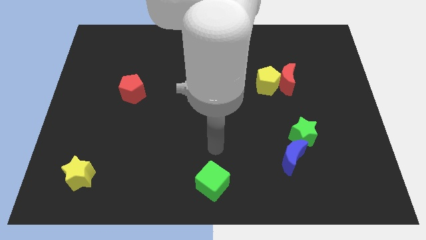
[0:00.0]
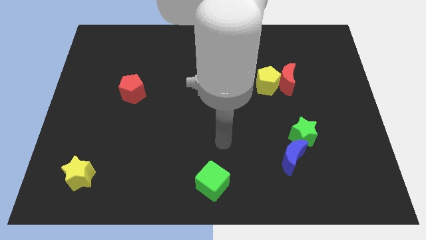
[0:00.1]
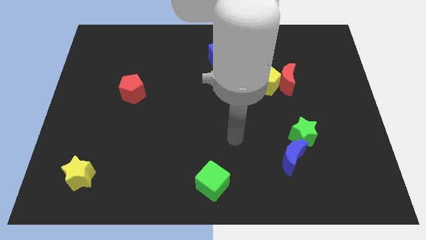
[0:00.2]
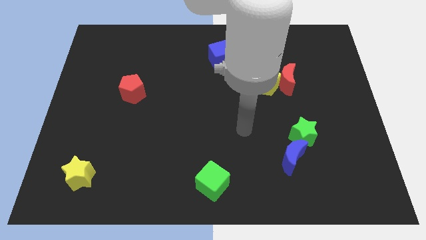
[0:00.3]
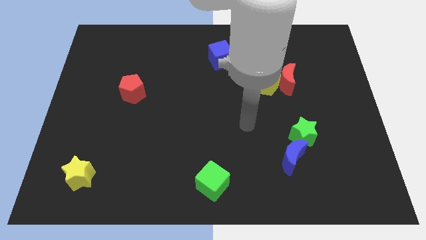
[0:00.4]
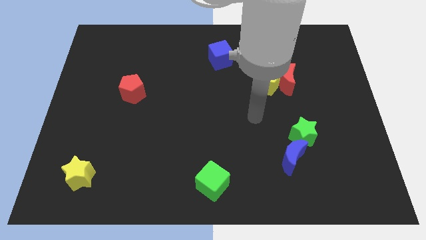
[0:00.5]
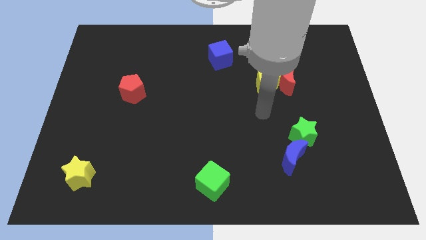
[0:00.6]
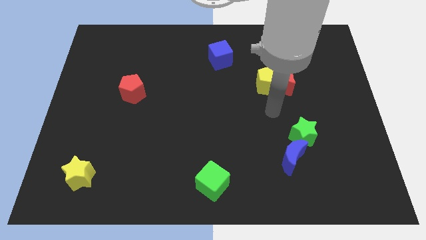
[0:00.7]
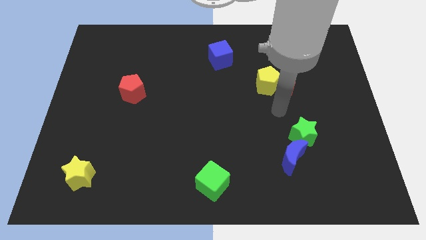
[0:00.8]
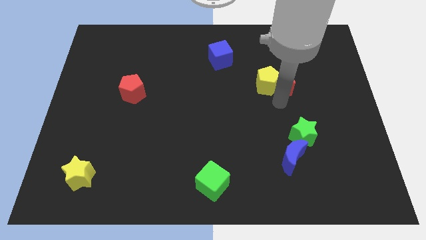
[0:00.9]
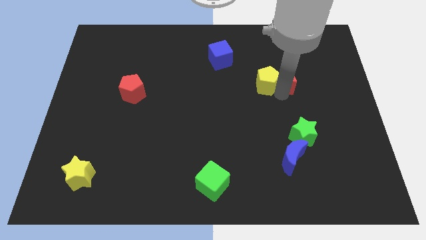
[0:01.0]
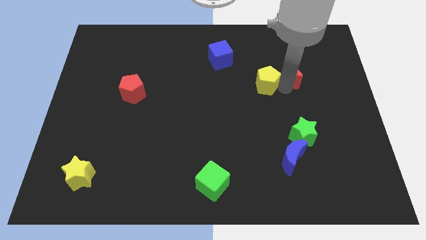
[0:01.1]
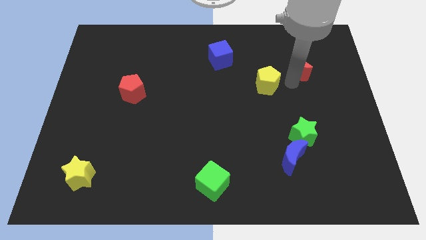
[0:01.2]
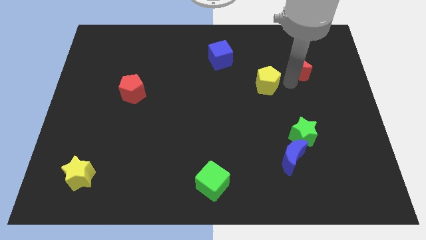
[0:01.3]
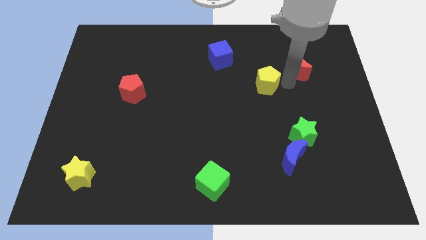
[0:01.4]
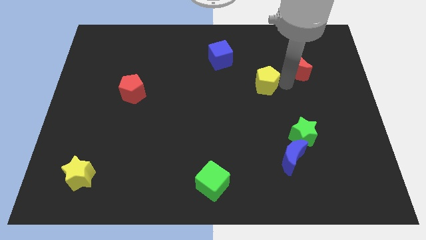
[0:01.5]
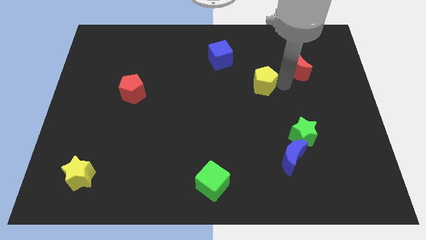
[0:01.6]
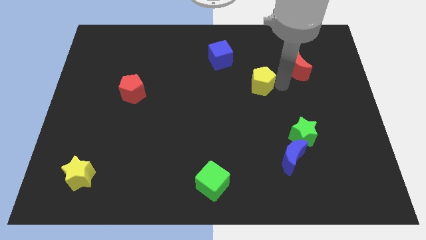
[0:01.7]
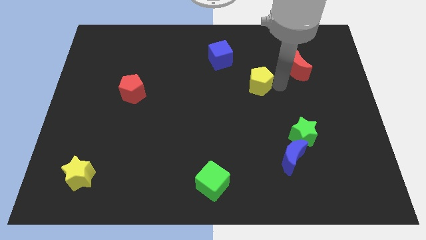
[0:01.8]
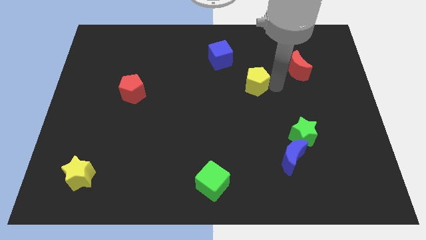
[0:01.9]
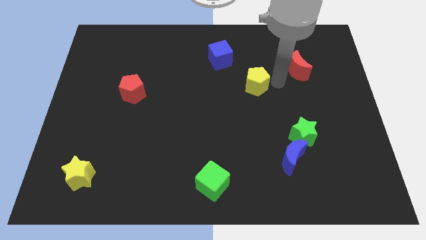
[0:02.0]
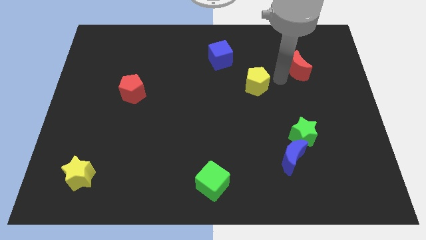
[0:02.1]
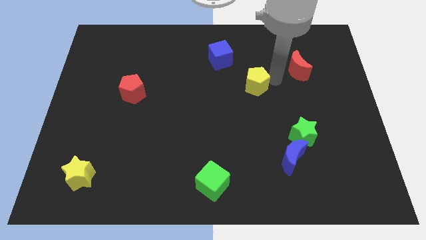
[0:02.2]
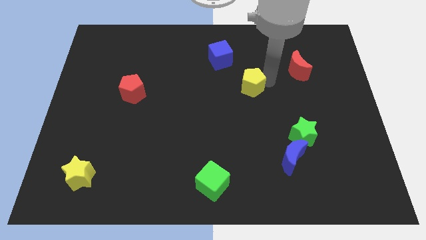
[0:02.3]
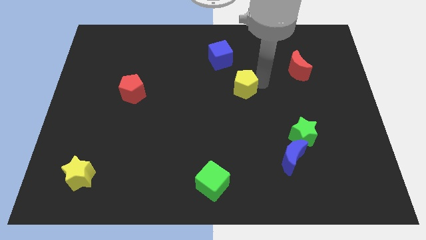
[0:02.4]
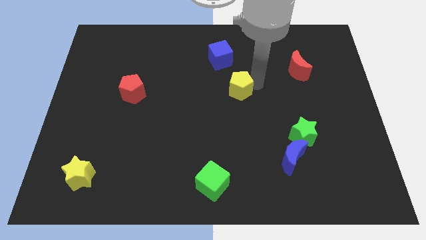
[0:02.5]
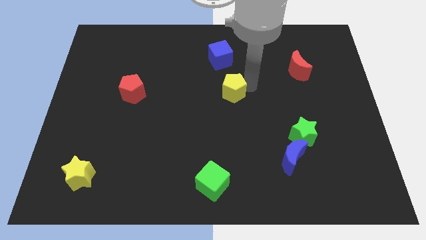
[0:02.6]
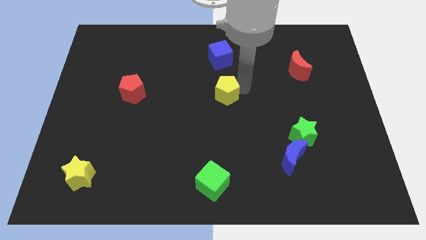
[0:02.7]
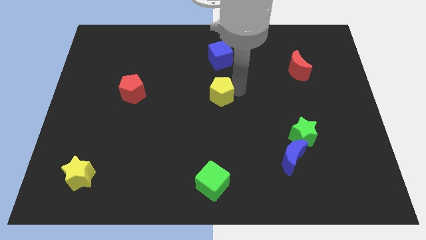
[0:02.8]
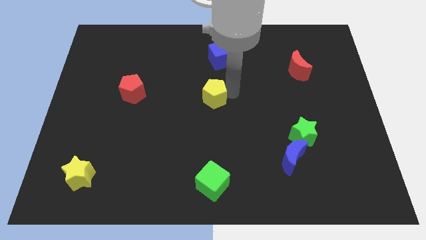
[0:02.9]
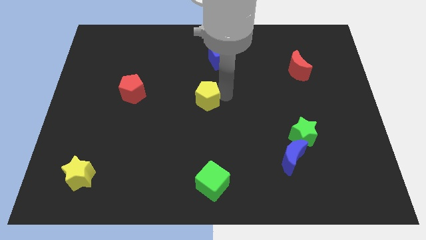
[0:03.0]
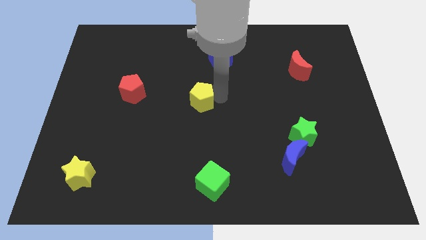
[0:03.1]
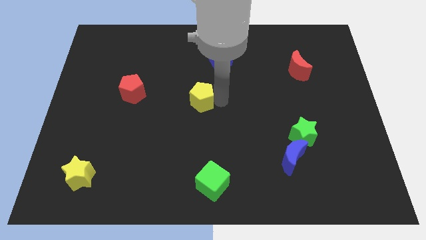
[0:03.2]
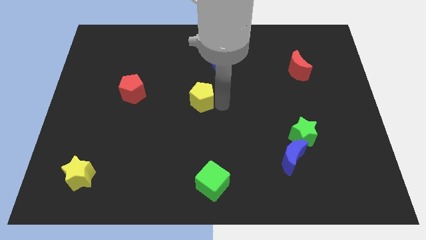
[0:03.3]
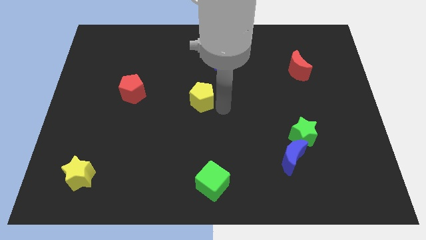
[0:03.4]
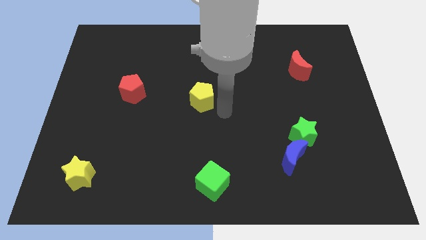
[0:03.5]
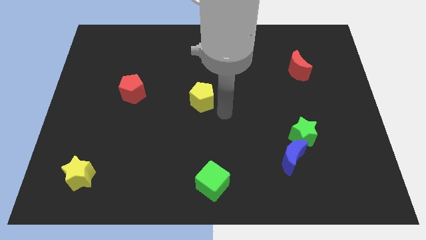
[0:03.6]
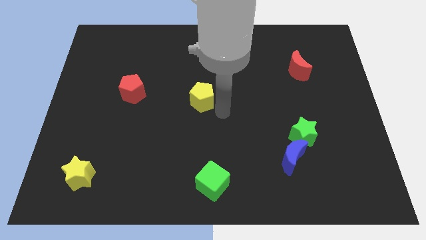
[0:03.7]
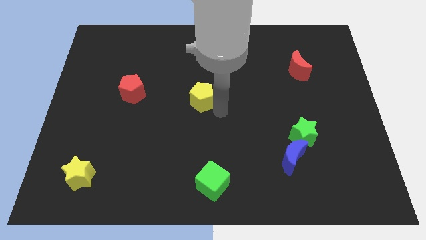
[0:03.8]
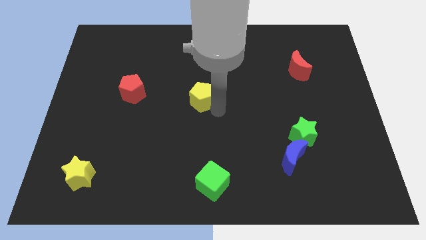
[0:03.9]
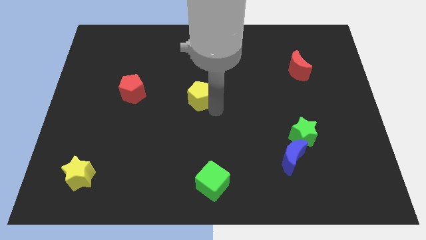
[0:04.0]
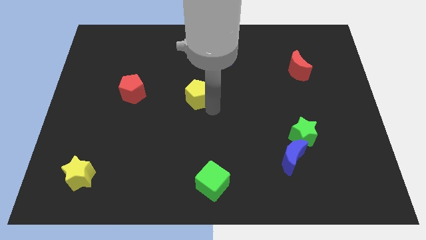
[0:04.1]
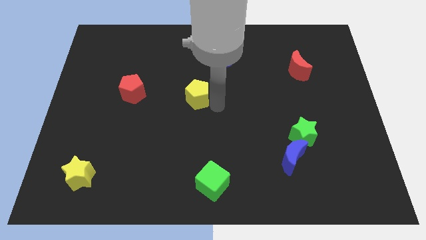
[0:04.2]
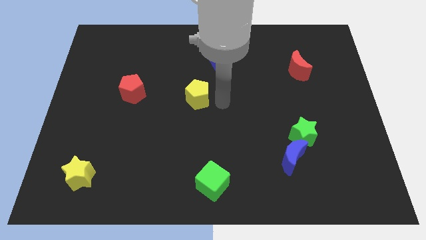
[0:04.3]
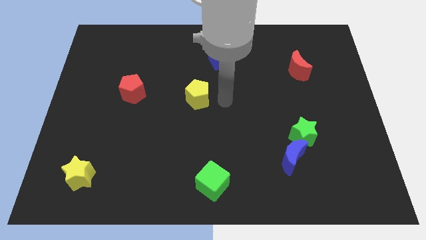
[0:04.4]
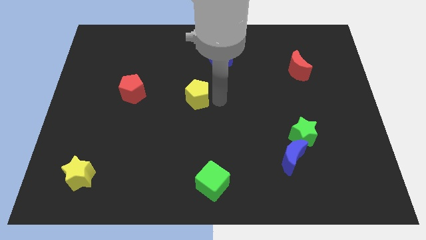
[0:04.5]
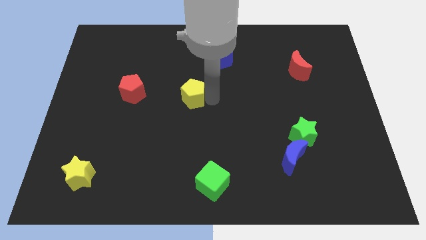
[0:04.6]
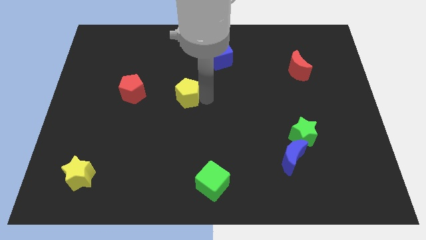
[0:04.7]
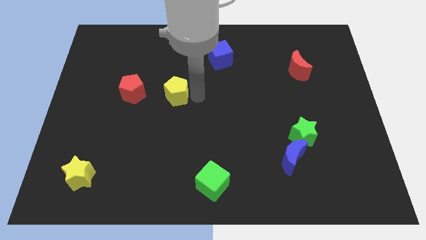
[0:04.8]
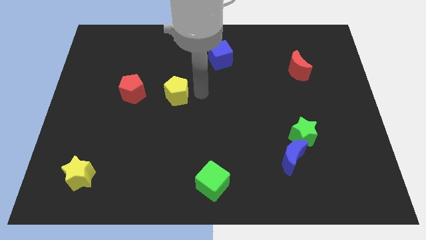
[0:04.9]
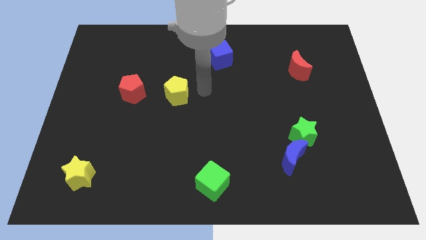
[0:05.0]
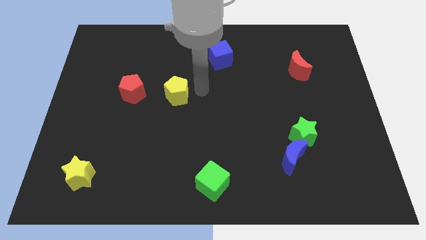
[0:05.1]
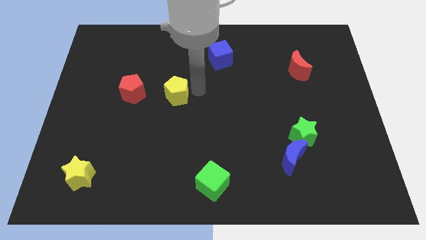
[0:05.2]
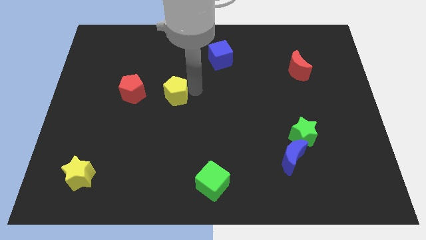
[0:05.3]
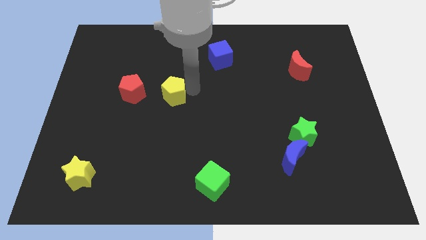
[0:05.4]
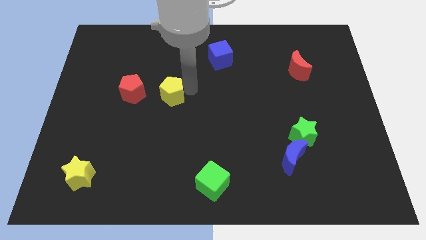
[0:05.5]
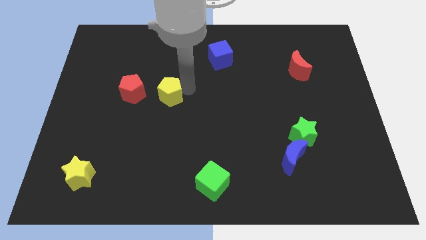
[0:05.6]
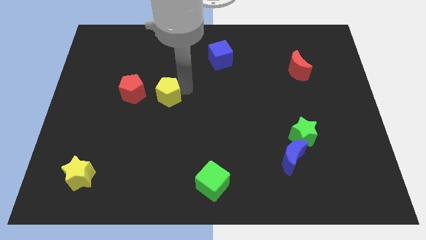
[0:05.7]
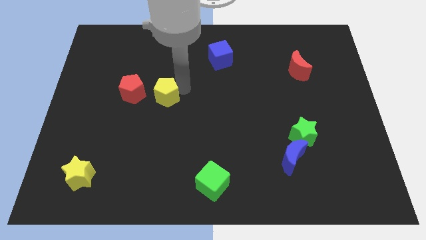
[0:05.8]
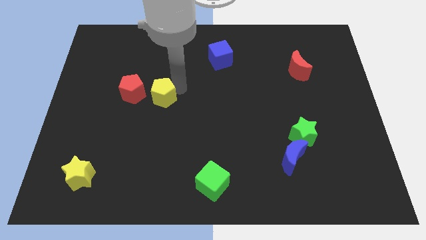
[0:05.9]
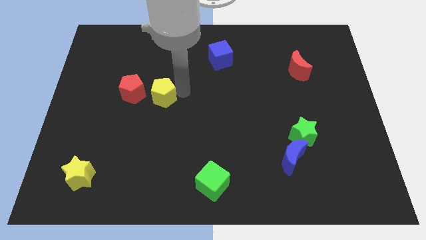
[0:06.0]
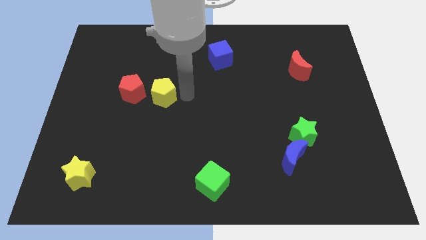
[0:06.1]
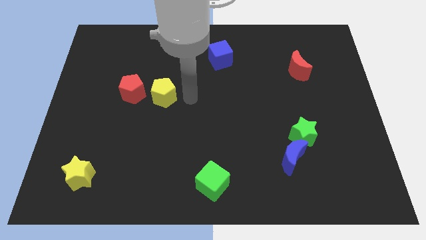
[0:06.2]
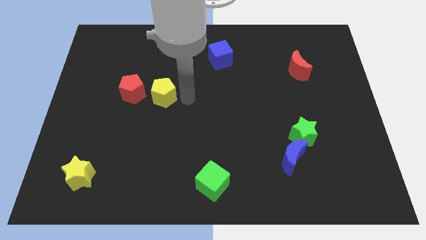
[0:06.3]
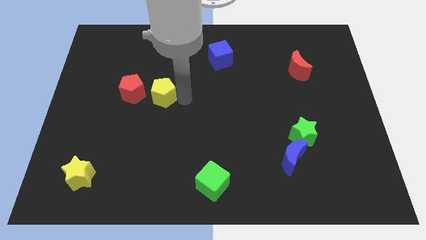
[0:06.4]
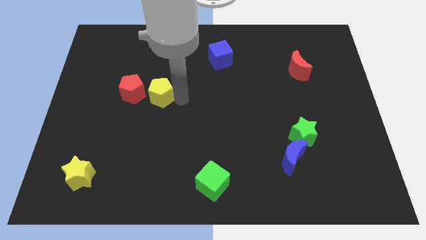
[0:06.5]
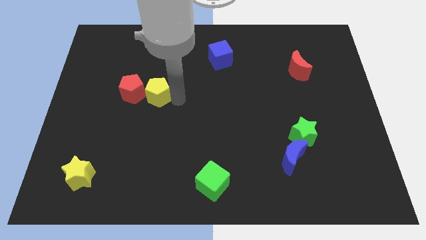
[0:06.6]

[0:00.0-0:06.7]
put the yellow pentagon towards the red pentagon

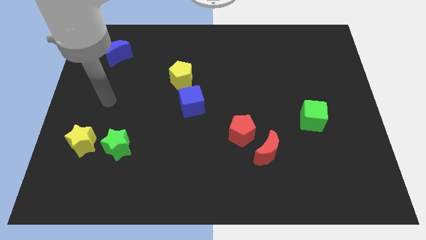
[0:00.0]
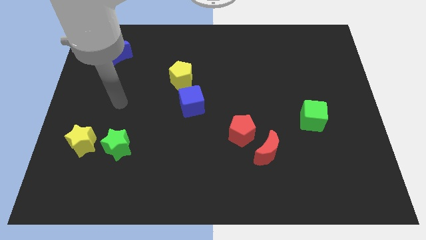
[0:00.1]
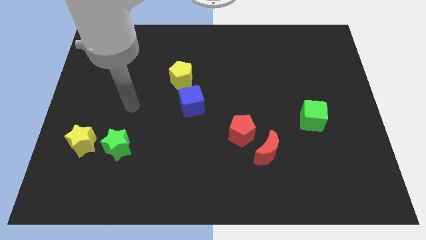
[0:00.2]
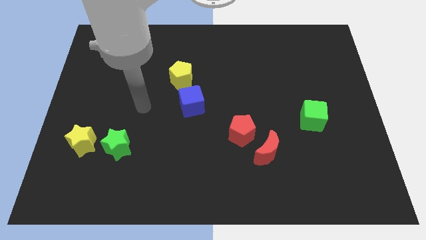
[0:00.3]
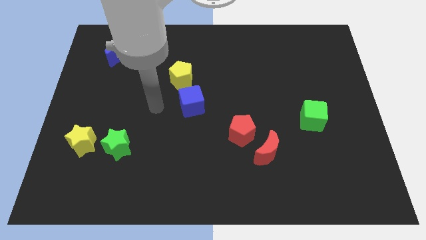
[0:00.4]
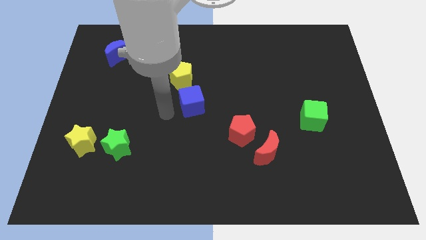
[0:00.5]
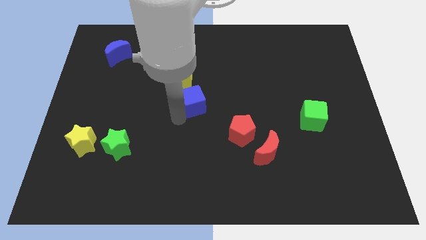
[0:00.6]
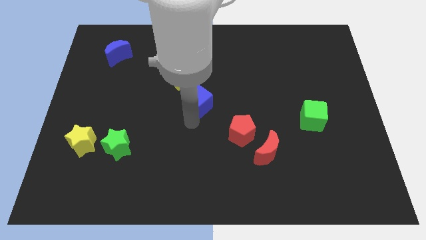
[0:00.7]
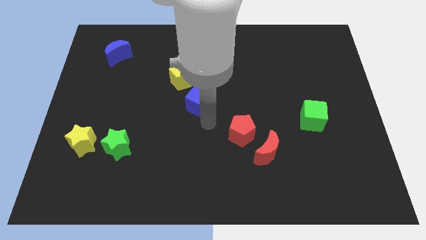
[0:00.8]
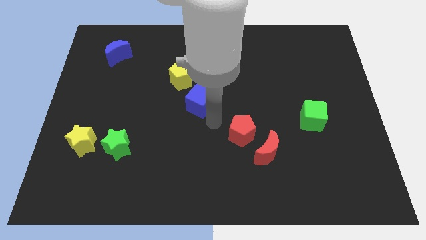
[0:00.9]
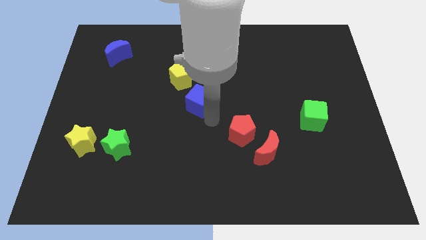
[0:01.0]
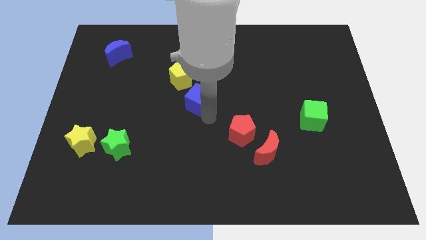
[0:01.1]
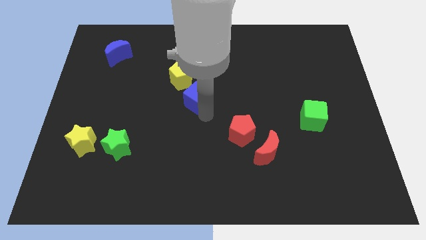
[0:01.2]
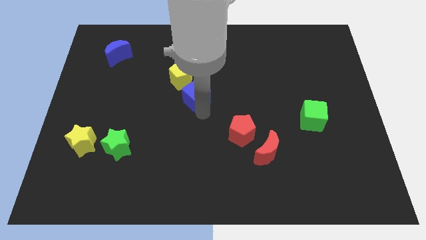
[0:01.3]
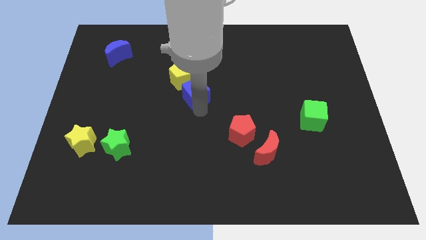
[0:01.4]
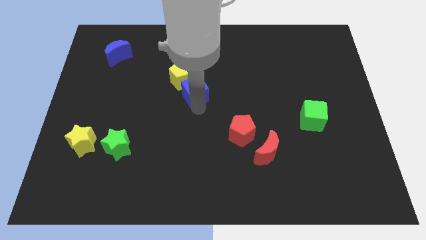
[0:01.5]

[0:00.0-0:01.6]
move the blue cube close to the yellow pentagon

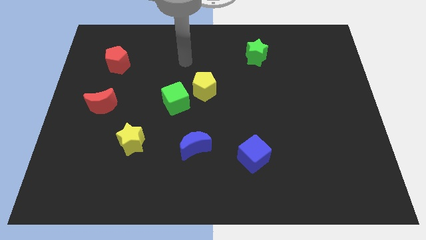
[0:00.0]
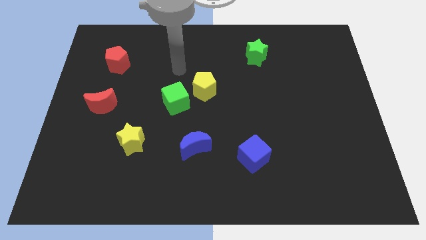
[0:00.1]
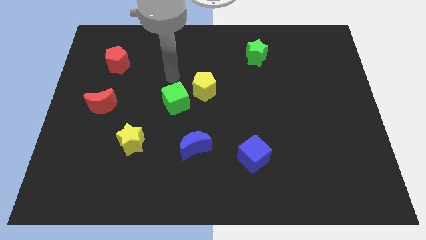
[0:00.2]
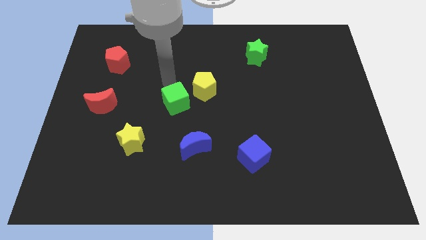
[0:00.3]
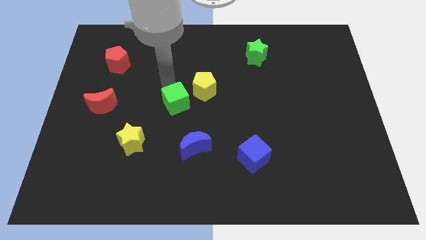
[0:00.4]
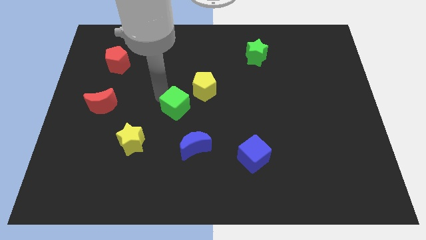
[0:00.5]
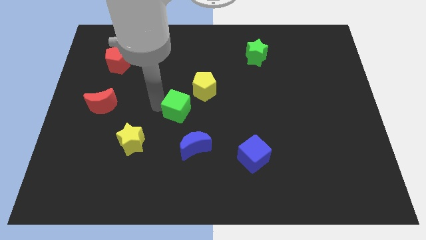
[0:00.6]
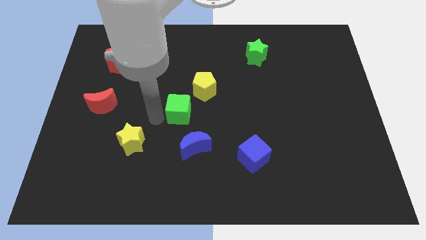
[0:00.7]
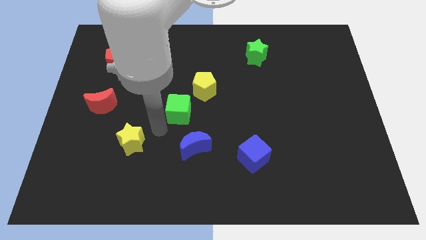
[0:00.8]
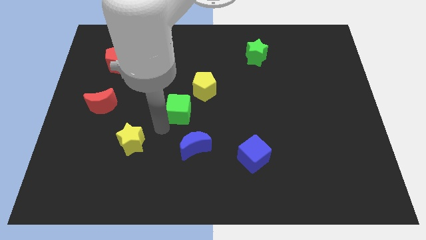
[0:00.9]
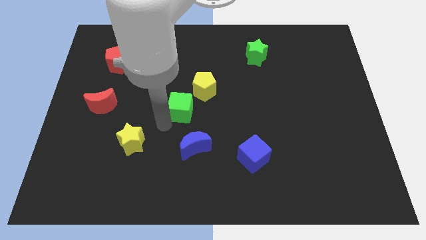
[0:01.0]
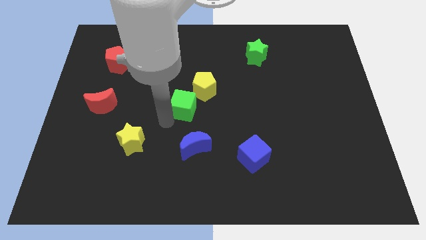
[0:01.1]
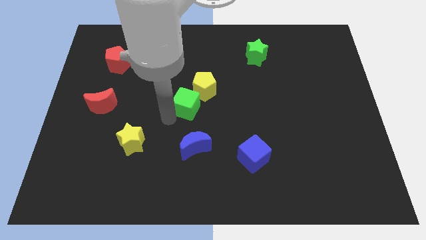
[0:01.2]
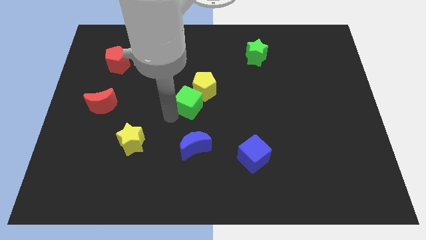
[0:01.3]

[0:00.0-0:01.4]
put the green cube towards the yellow pentagon
